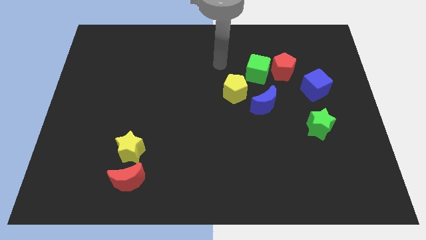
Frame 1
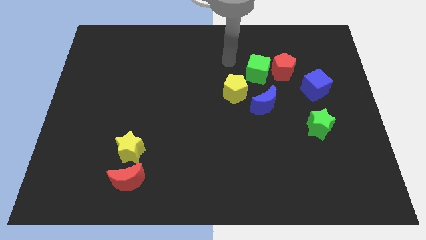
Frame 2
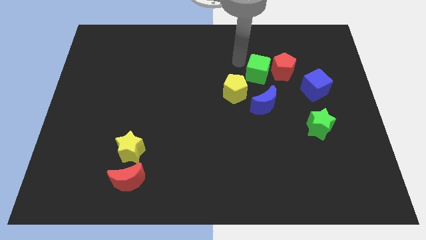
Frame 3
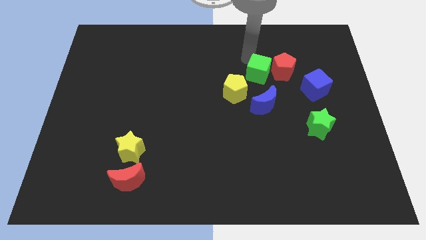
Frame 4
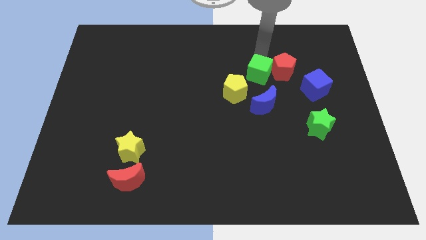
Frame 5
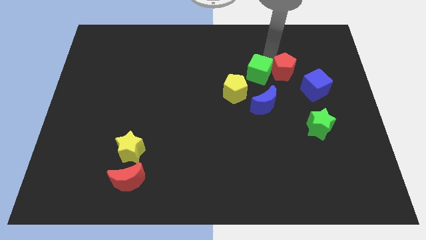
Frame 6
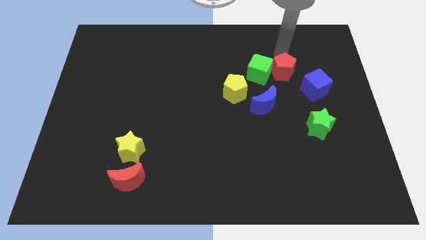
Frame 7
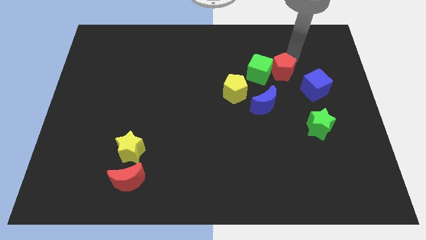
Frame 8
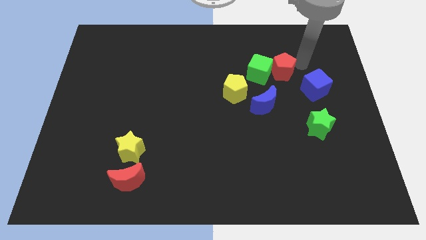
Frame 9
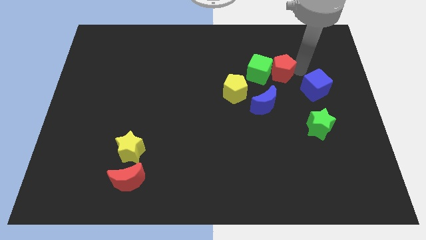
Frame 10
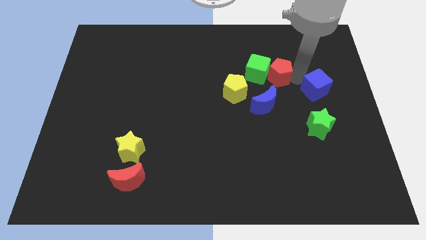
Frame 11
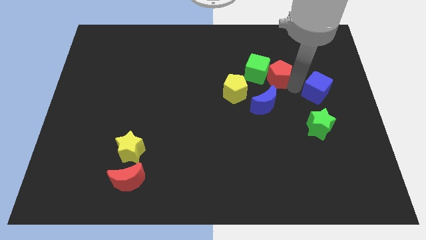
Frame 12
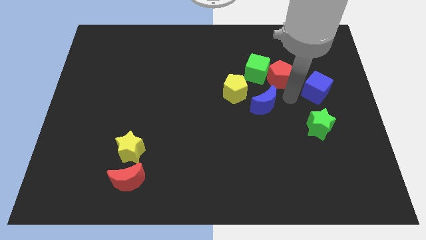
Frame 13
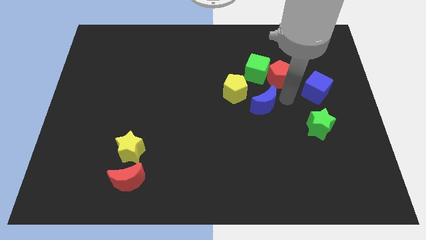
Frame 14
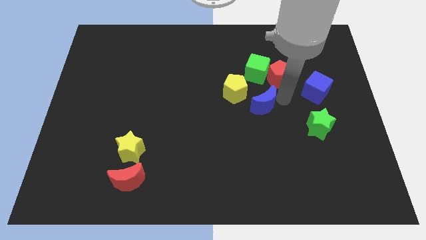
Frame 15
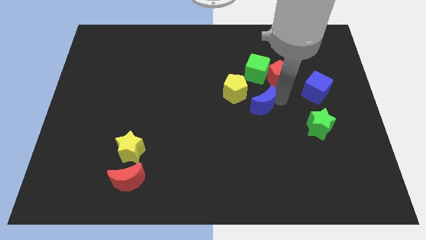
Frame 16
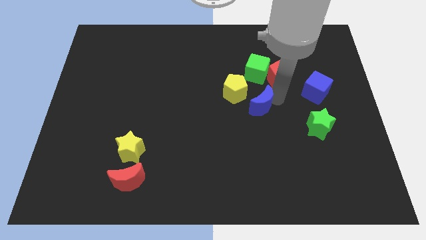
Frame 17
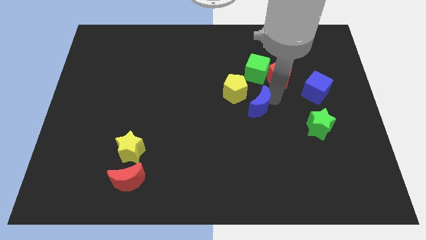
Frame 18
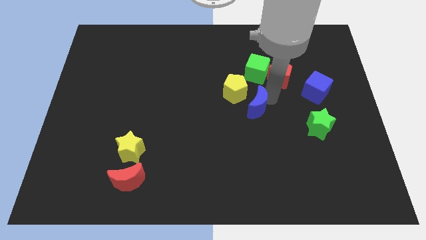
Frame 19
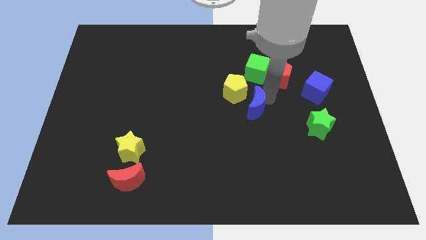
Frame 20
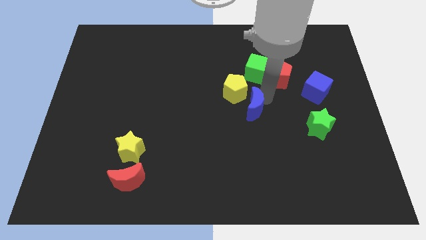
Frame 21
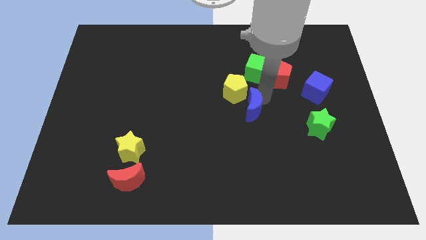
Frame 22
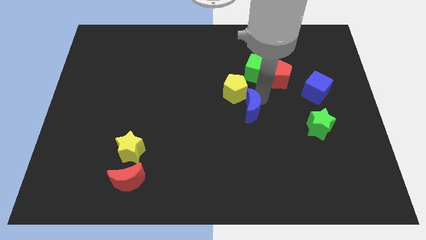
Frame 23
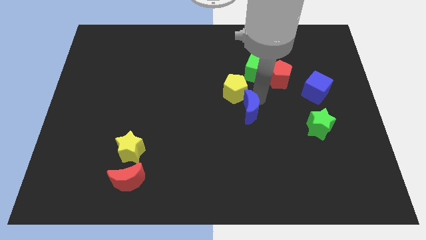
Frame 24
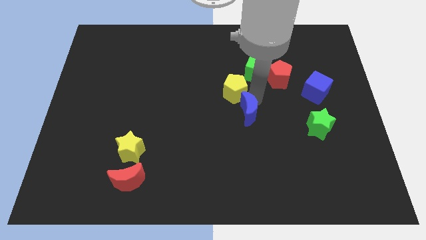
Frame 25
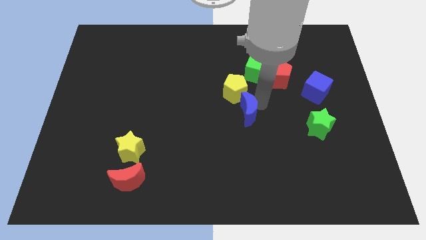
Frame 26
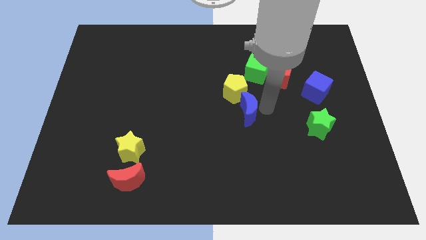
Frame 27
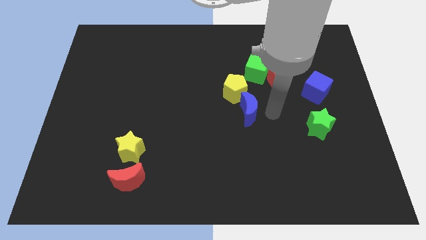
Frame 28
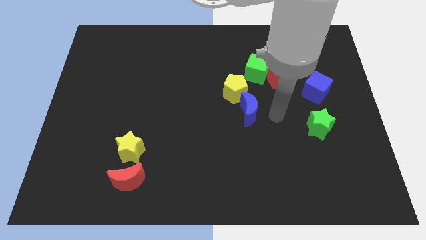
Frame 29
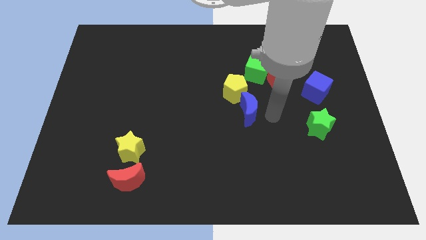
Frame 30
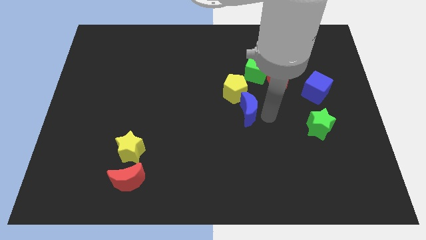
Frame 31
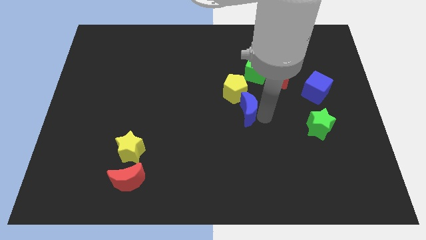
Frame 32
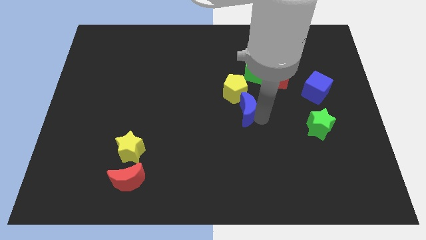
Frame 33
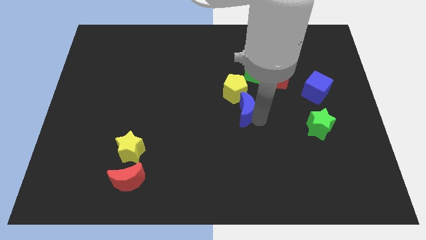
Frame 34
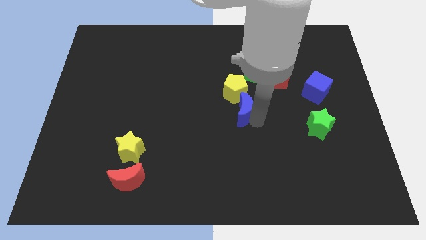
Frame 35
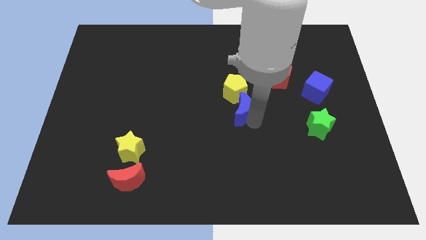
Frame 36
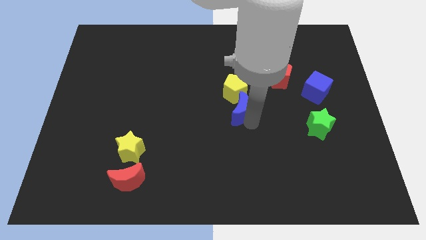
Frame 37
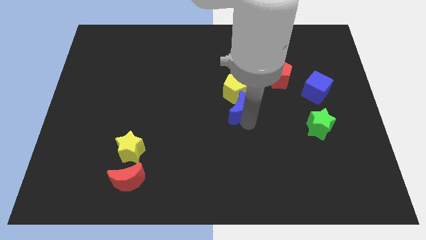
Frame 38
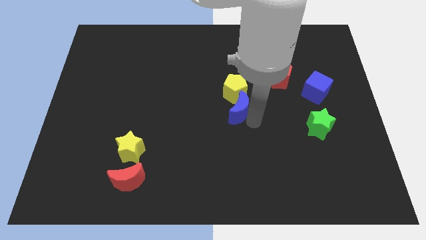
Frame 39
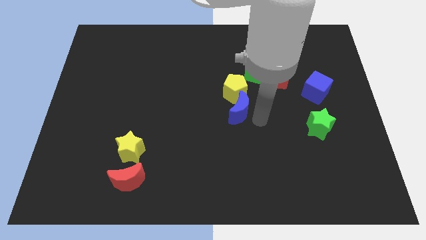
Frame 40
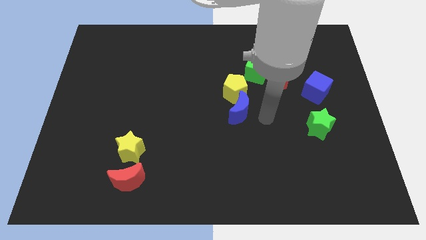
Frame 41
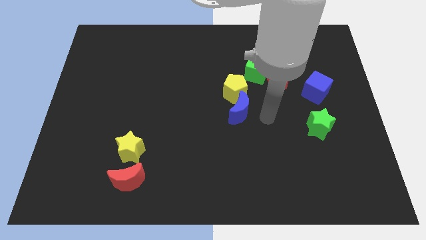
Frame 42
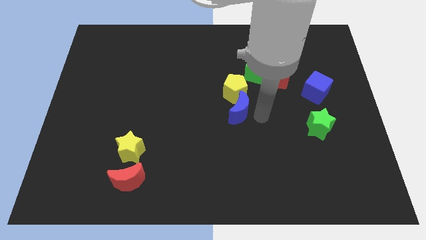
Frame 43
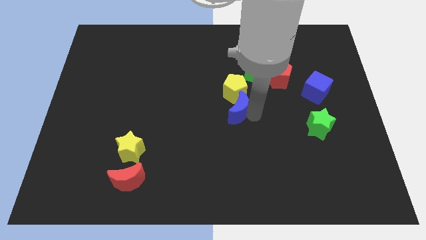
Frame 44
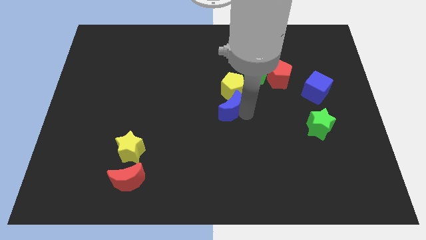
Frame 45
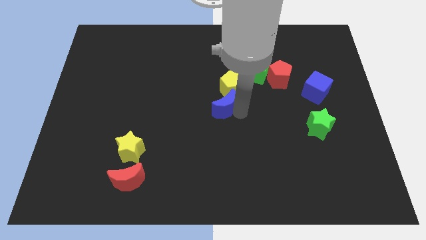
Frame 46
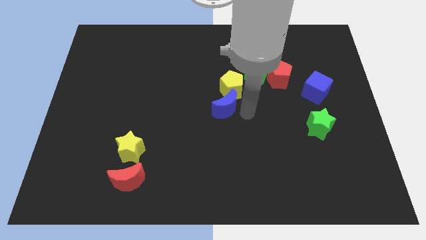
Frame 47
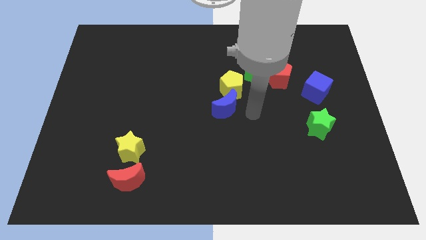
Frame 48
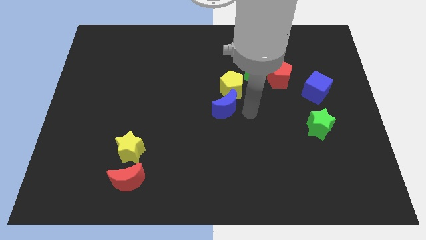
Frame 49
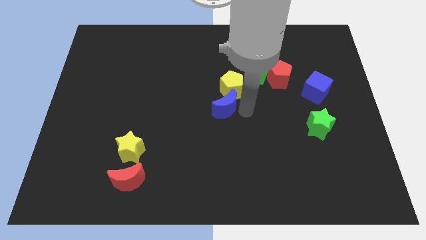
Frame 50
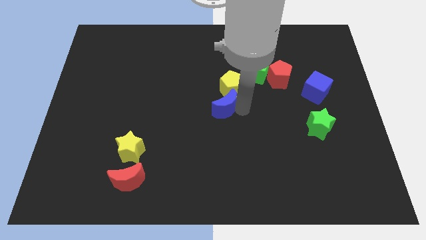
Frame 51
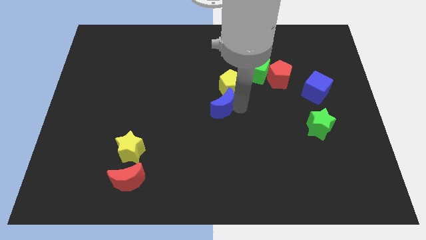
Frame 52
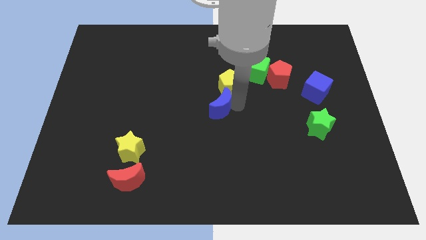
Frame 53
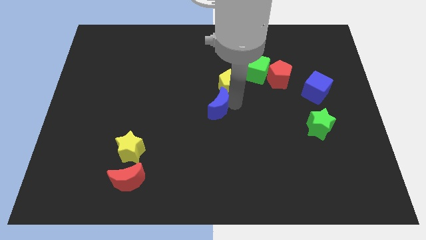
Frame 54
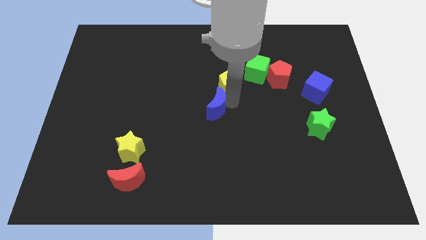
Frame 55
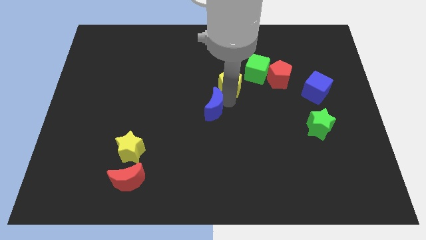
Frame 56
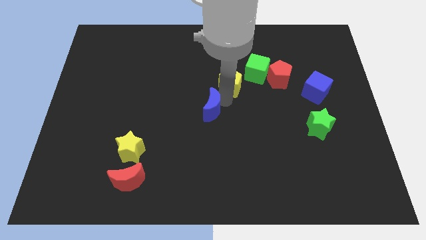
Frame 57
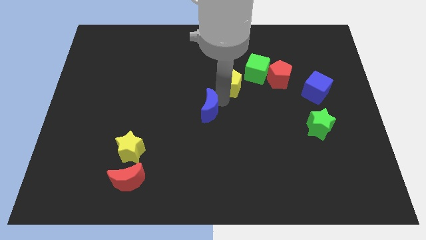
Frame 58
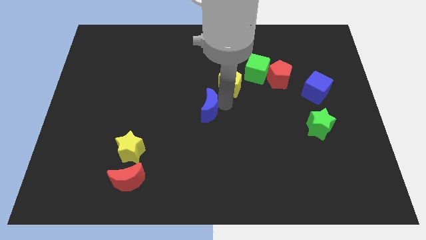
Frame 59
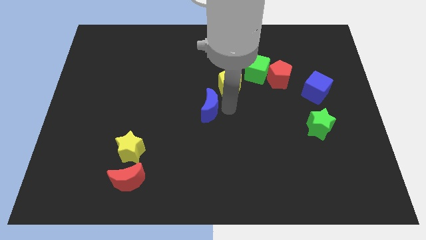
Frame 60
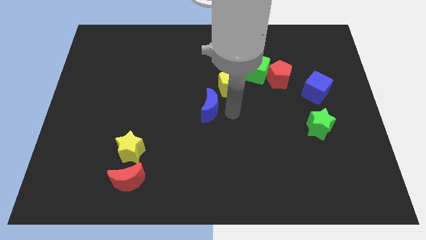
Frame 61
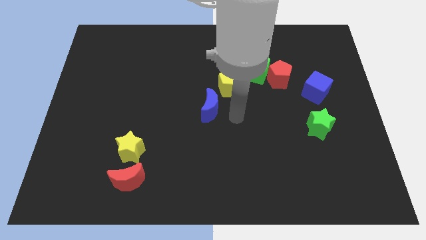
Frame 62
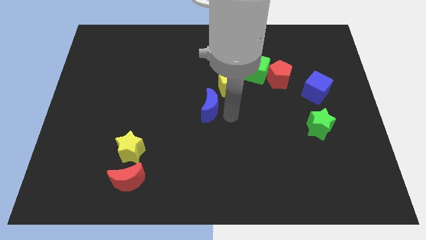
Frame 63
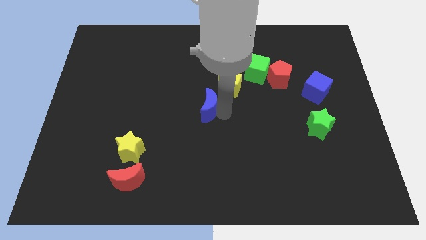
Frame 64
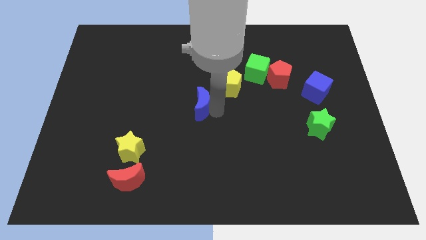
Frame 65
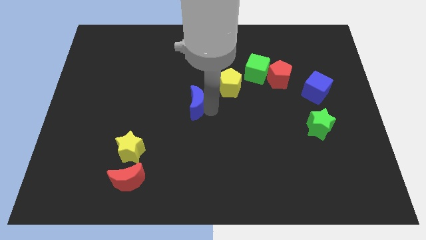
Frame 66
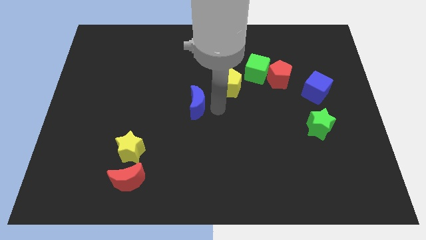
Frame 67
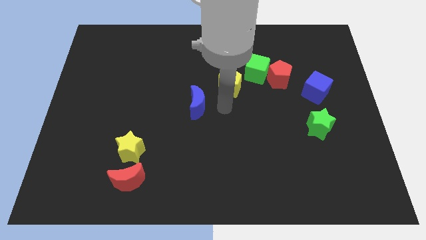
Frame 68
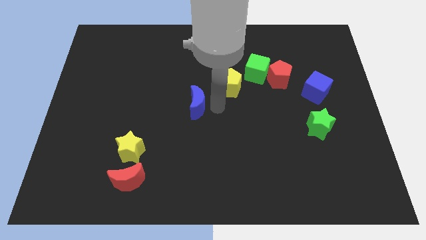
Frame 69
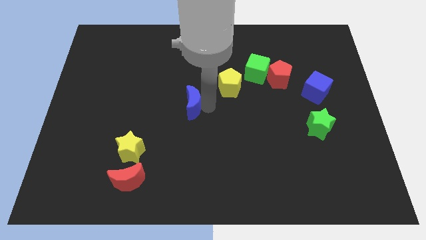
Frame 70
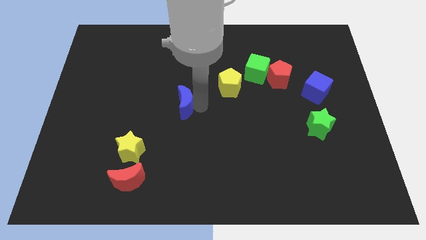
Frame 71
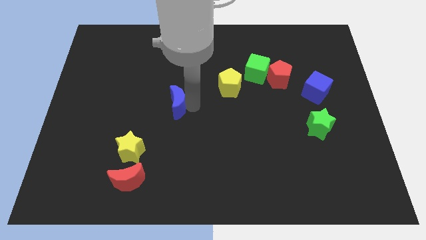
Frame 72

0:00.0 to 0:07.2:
move the blue moon to the left

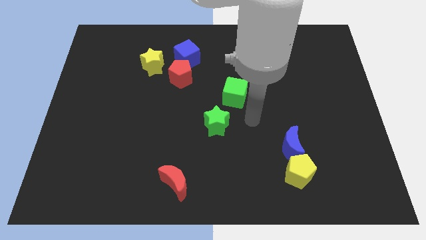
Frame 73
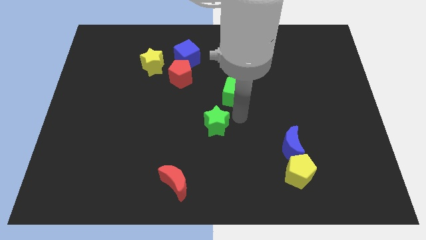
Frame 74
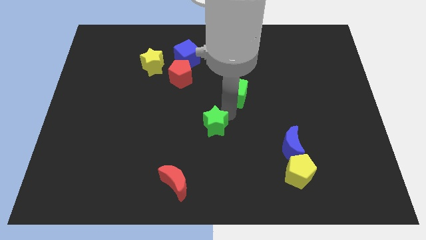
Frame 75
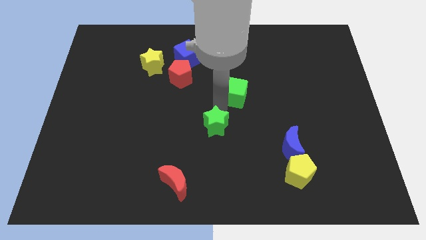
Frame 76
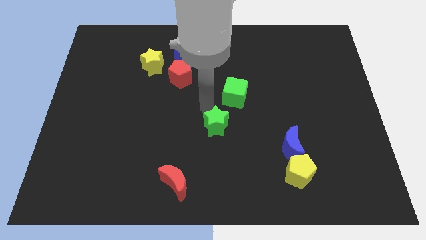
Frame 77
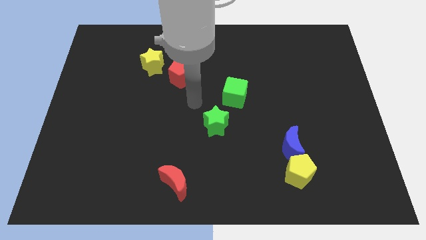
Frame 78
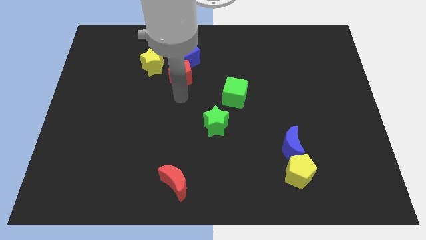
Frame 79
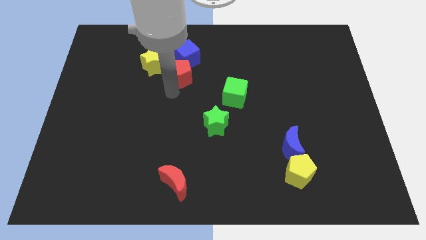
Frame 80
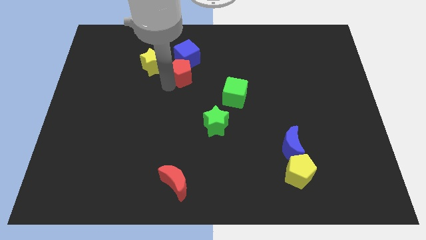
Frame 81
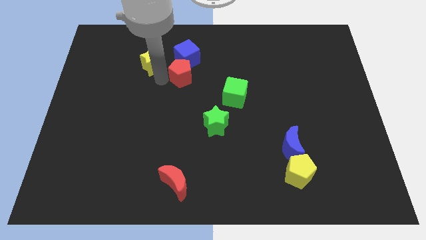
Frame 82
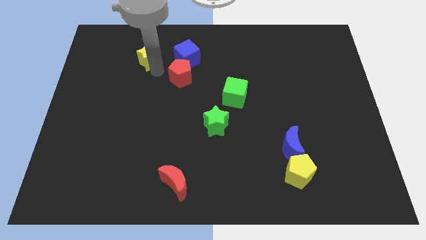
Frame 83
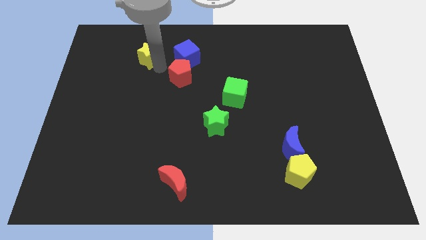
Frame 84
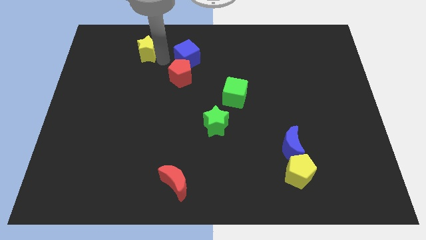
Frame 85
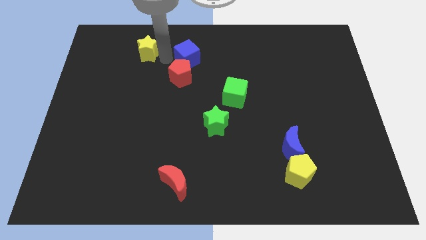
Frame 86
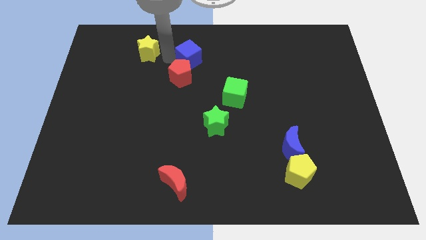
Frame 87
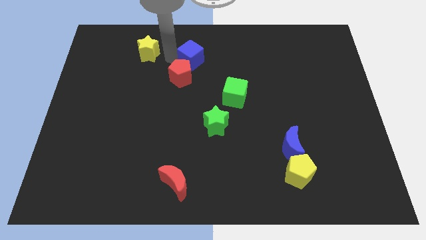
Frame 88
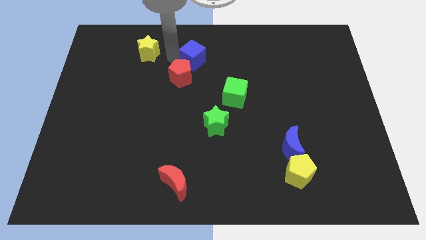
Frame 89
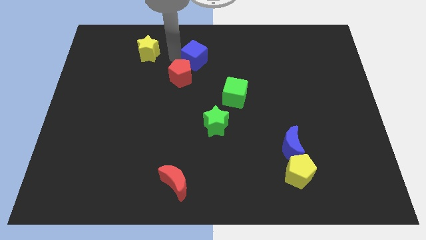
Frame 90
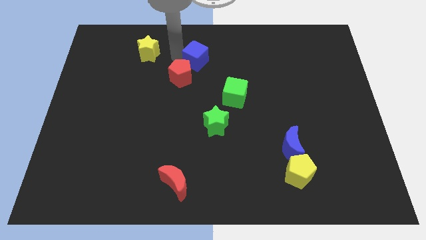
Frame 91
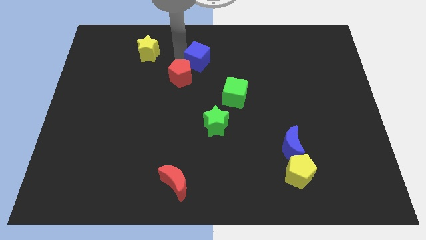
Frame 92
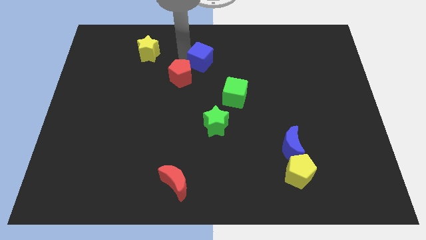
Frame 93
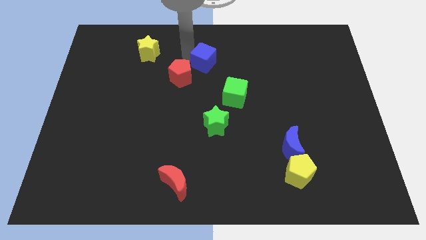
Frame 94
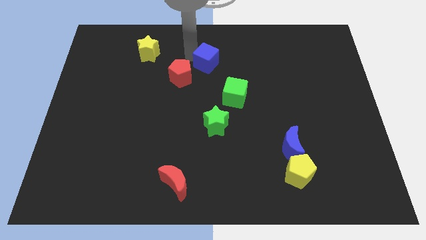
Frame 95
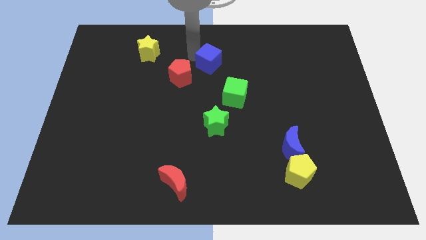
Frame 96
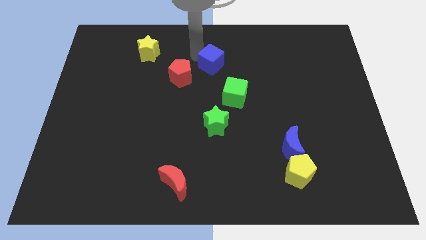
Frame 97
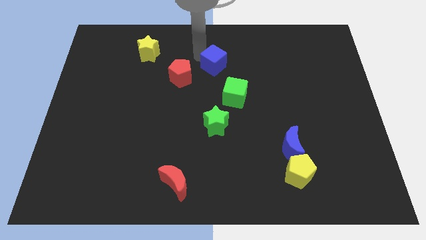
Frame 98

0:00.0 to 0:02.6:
slide the blue cube right slightly
